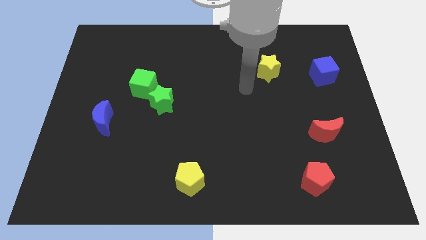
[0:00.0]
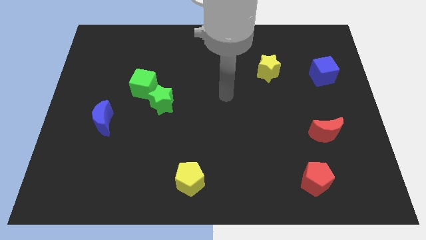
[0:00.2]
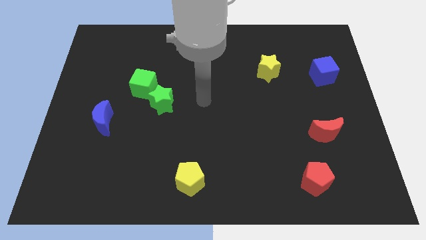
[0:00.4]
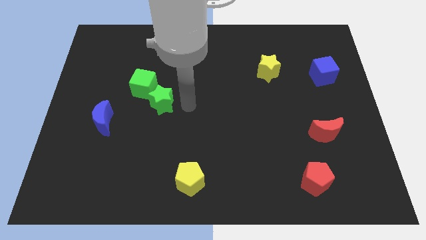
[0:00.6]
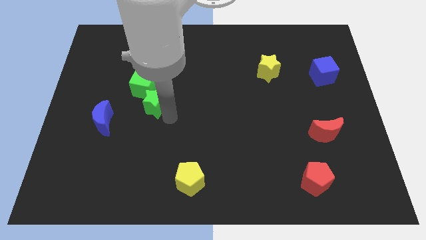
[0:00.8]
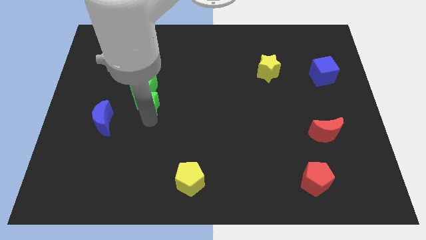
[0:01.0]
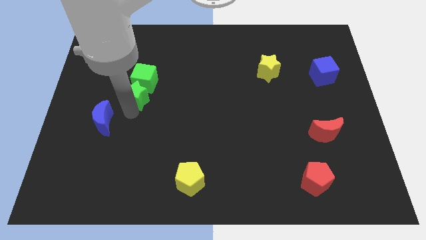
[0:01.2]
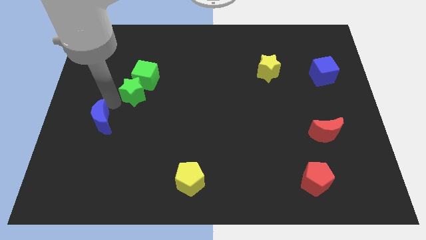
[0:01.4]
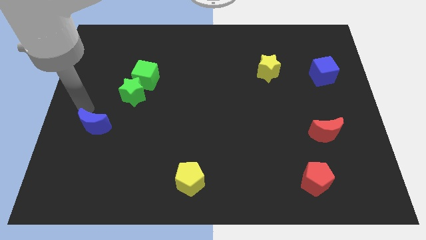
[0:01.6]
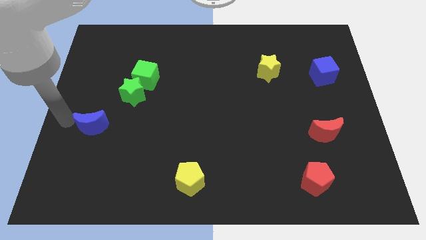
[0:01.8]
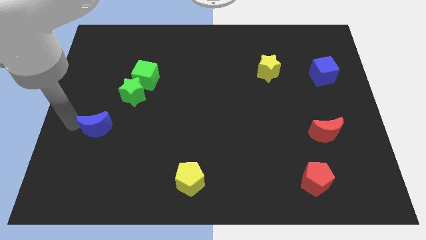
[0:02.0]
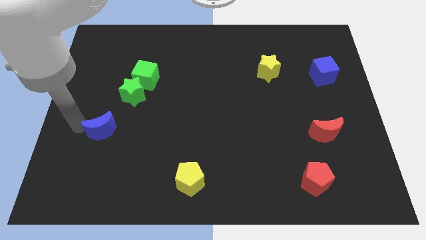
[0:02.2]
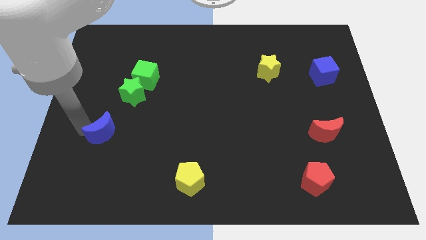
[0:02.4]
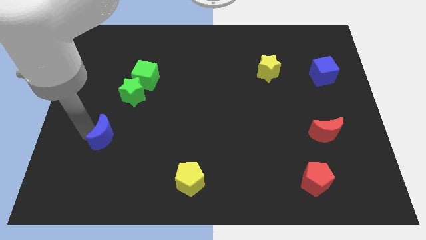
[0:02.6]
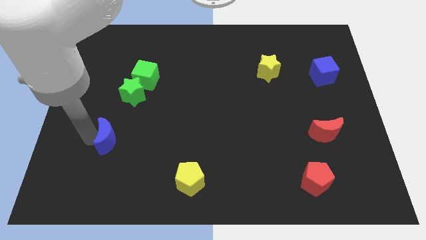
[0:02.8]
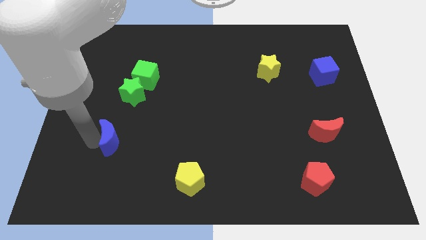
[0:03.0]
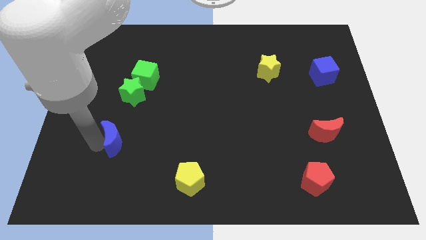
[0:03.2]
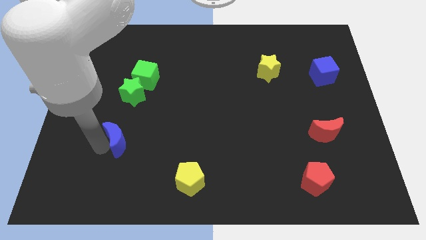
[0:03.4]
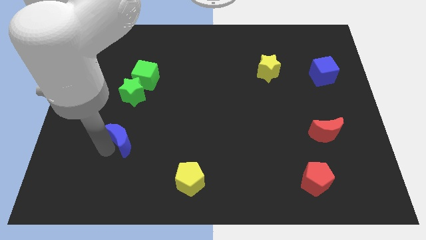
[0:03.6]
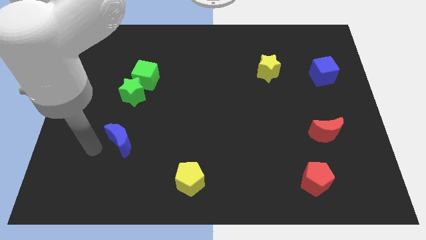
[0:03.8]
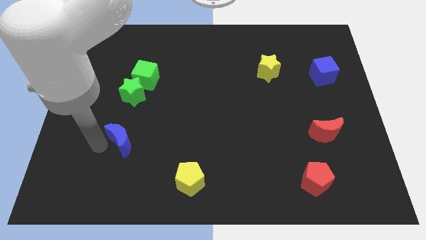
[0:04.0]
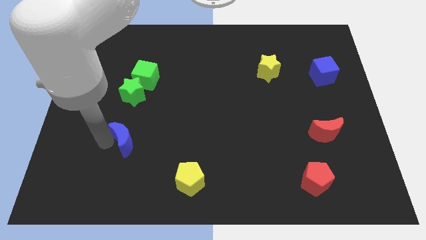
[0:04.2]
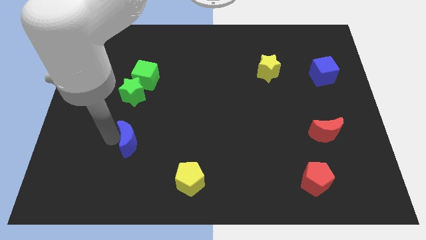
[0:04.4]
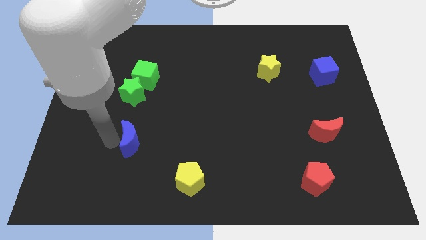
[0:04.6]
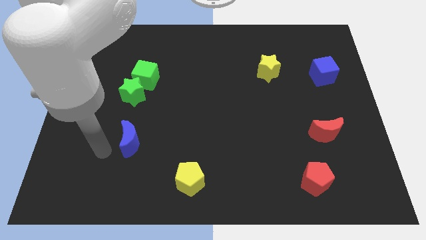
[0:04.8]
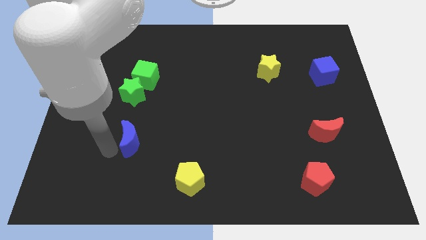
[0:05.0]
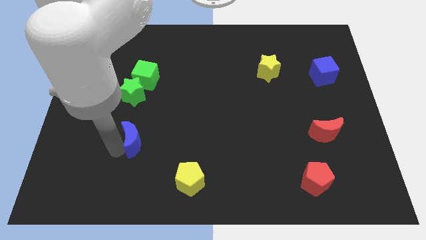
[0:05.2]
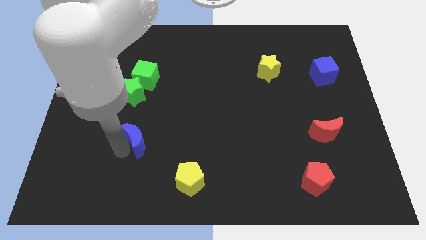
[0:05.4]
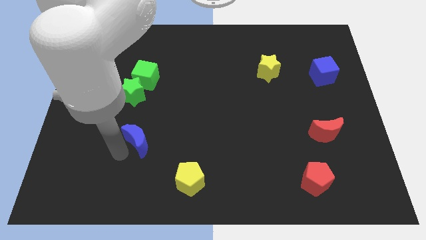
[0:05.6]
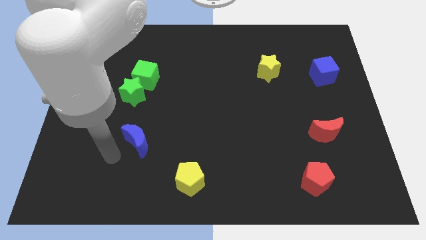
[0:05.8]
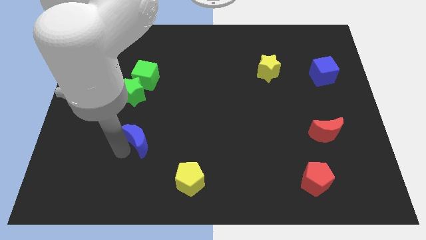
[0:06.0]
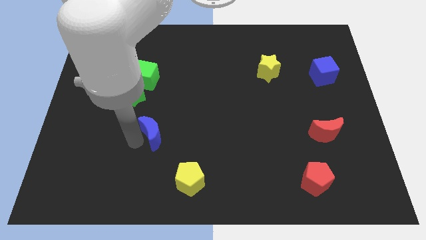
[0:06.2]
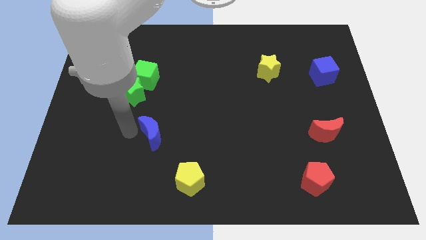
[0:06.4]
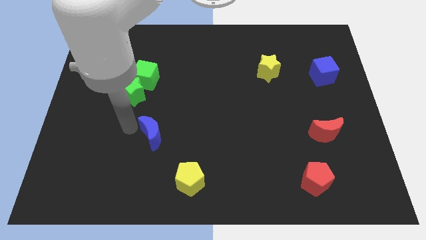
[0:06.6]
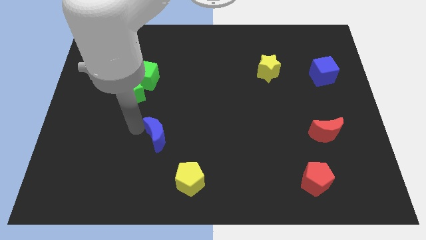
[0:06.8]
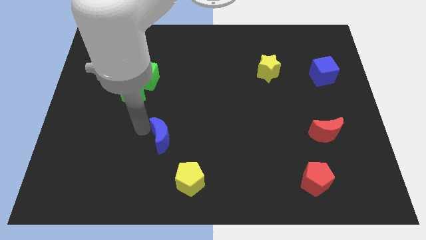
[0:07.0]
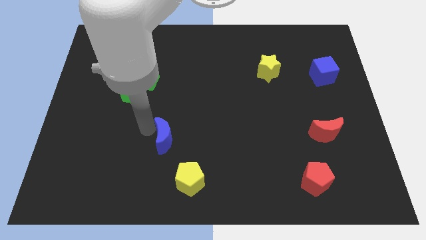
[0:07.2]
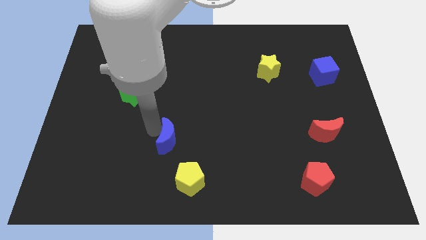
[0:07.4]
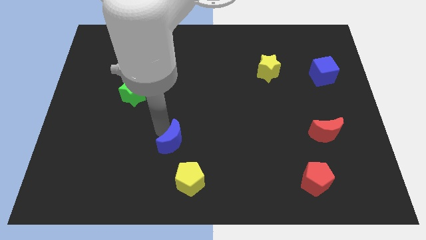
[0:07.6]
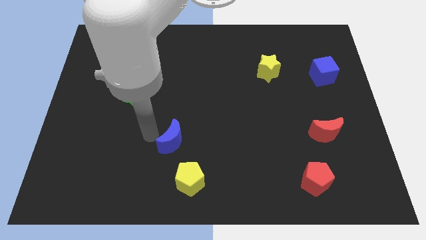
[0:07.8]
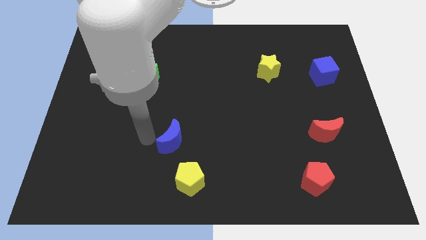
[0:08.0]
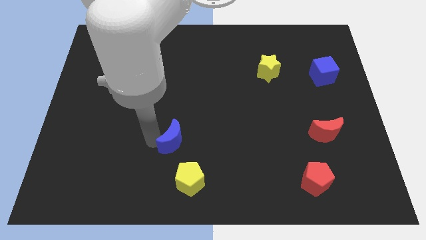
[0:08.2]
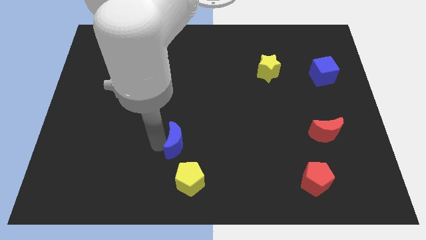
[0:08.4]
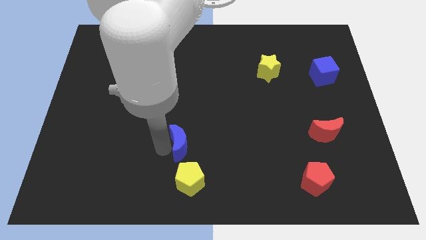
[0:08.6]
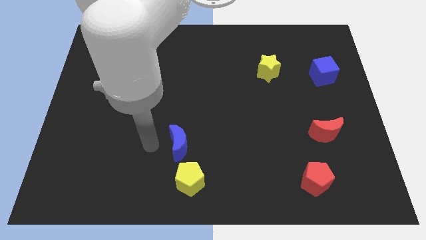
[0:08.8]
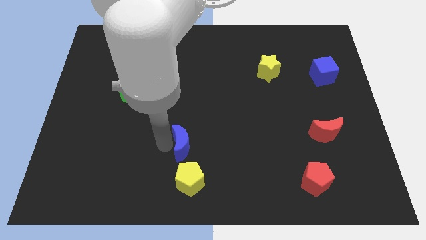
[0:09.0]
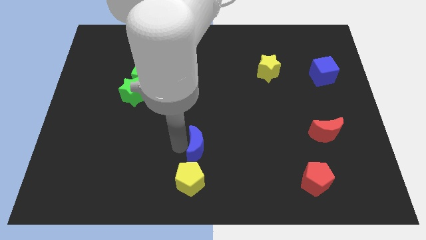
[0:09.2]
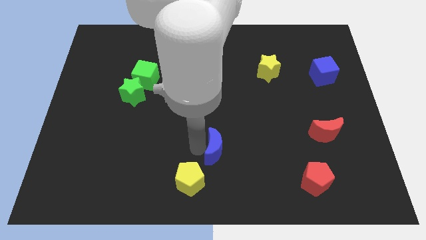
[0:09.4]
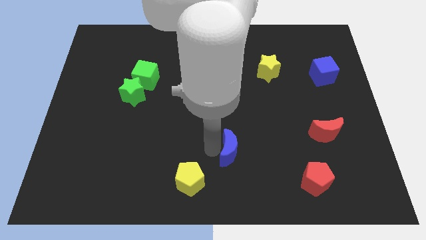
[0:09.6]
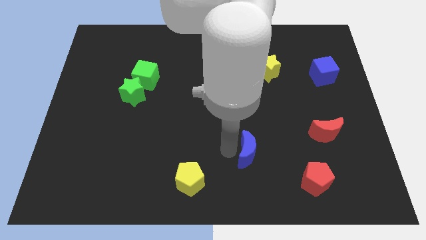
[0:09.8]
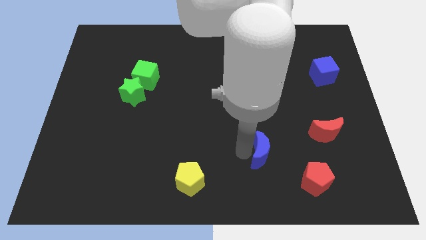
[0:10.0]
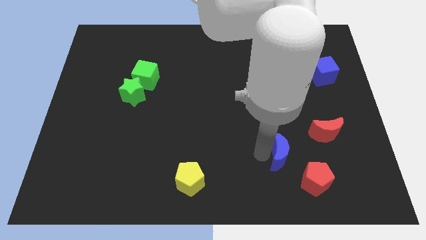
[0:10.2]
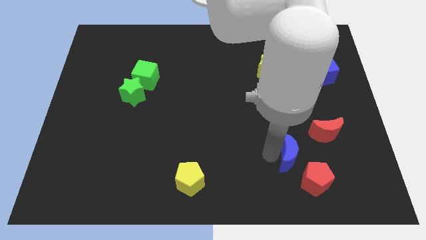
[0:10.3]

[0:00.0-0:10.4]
slide the blue moon diagonally down and to the left of the red moon

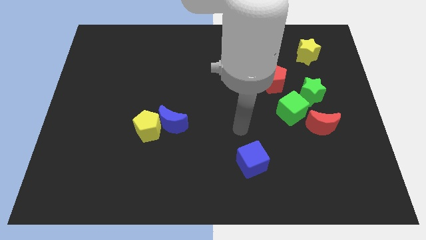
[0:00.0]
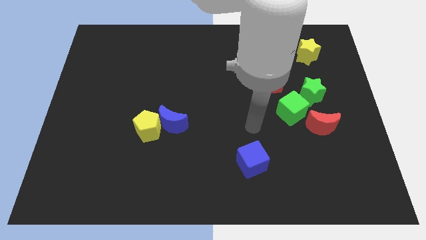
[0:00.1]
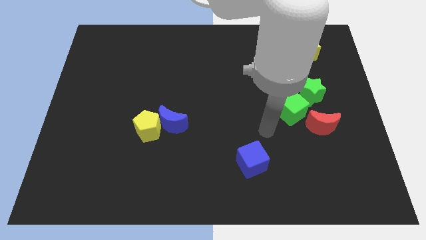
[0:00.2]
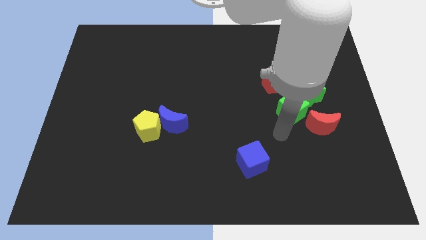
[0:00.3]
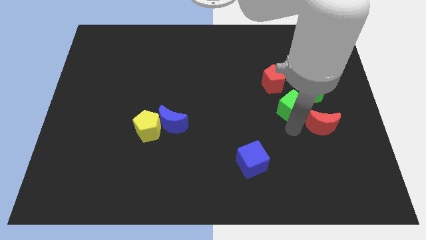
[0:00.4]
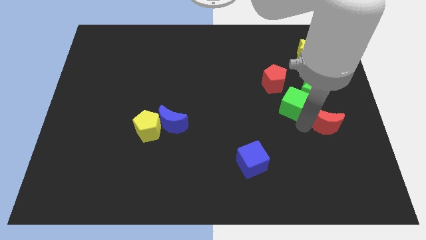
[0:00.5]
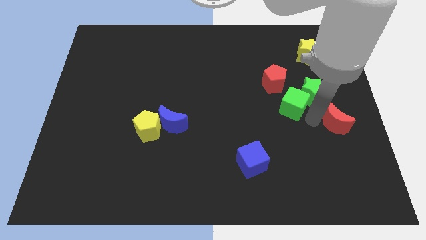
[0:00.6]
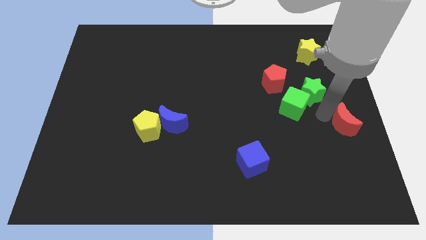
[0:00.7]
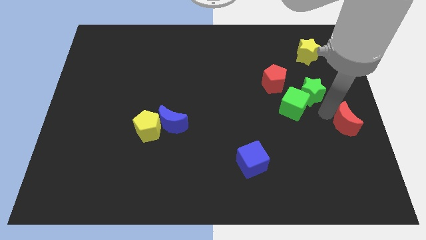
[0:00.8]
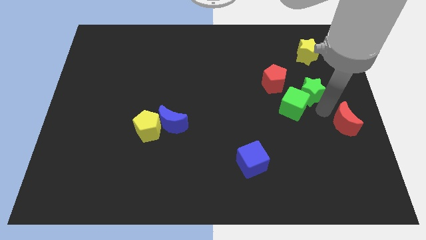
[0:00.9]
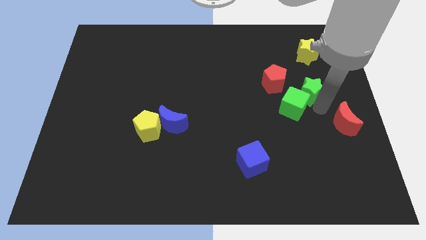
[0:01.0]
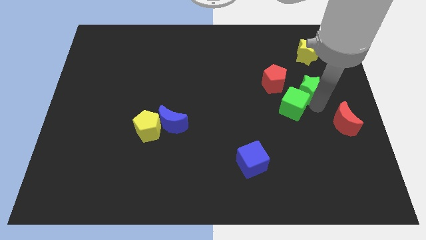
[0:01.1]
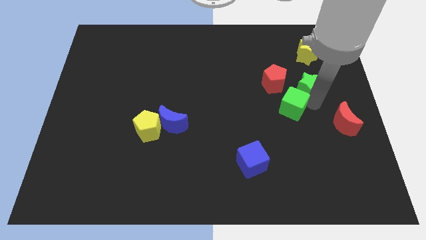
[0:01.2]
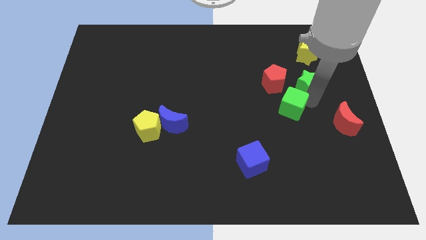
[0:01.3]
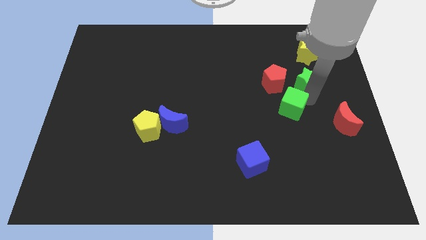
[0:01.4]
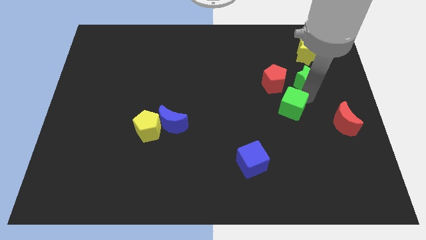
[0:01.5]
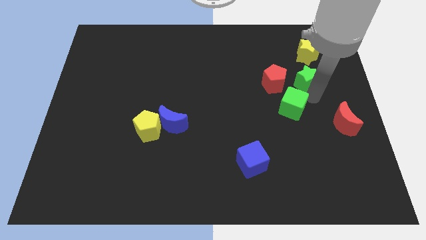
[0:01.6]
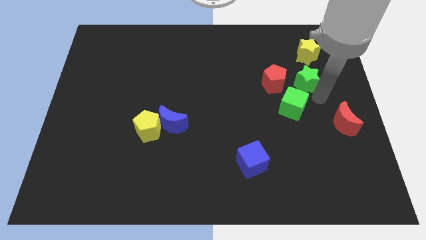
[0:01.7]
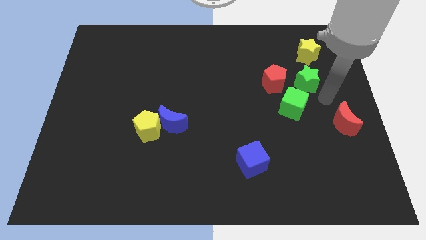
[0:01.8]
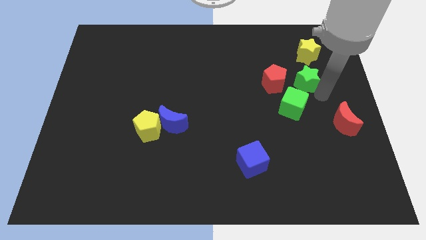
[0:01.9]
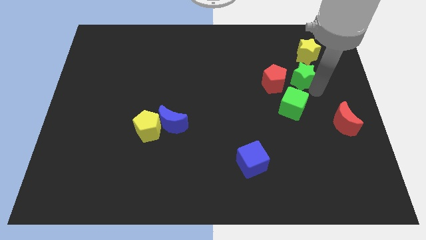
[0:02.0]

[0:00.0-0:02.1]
push the green star diagonally down and to the left of the yellow star
